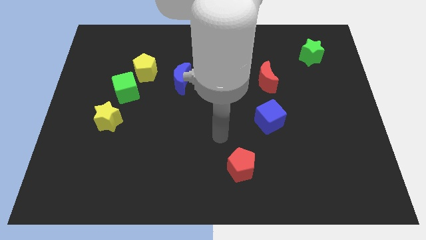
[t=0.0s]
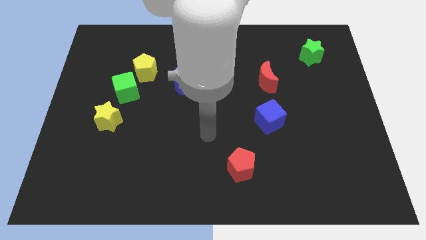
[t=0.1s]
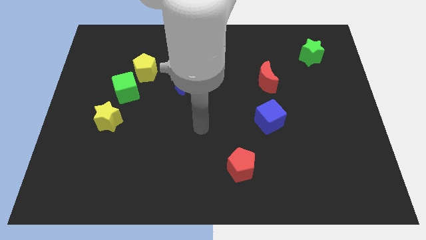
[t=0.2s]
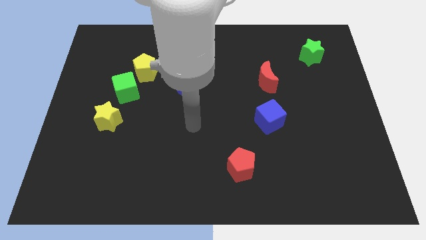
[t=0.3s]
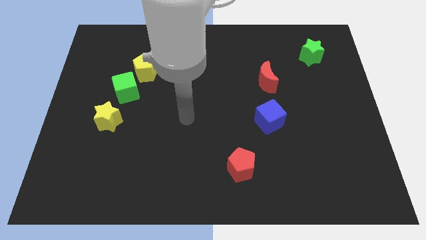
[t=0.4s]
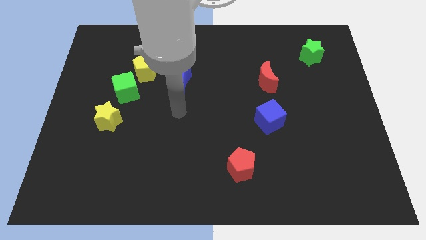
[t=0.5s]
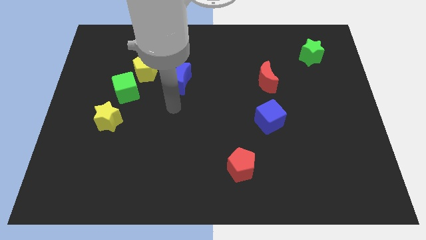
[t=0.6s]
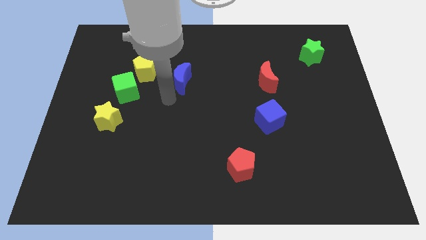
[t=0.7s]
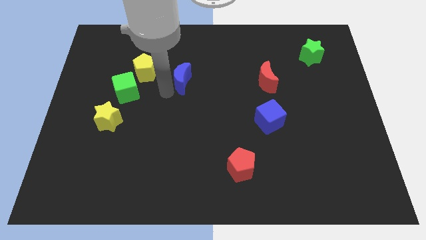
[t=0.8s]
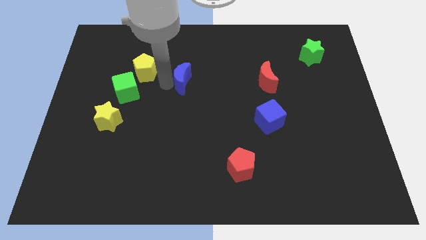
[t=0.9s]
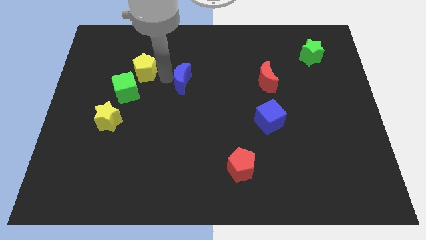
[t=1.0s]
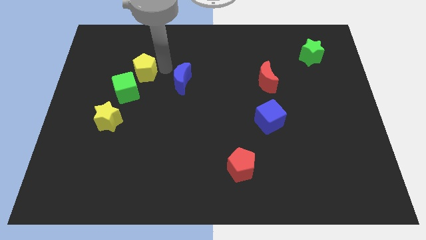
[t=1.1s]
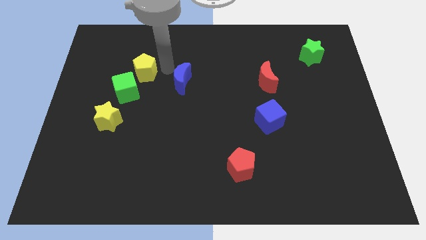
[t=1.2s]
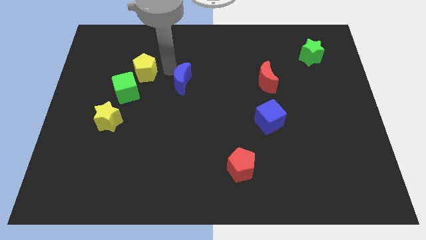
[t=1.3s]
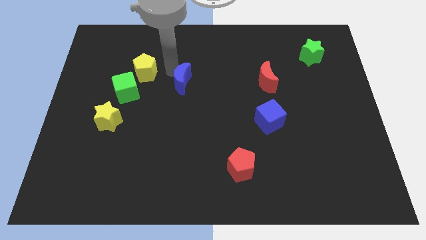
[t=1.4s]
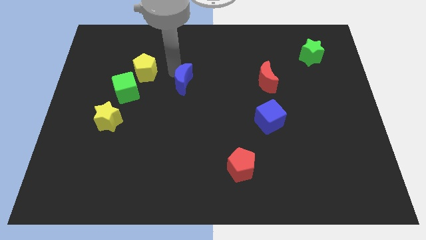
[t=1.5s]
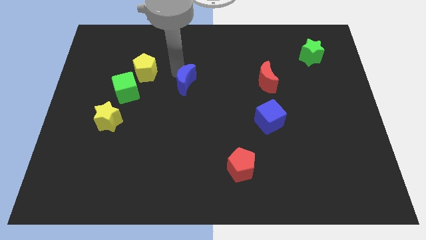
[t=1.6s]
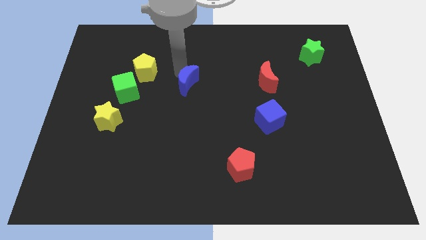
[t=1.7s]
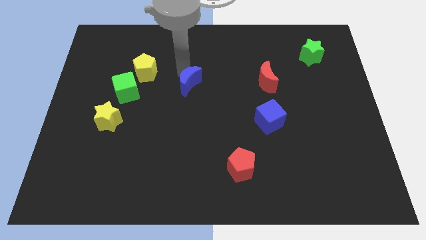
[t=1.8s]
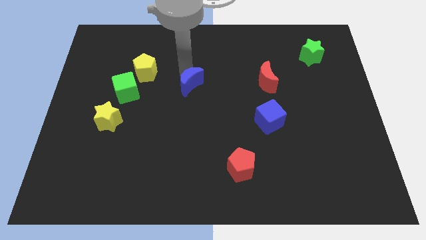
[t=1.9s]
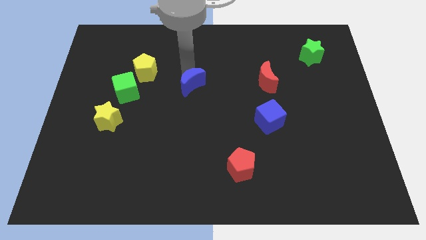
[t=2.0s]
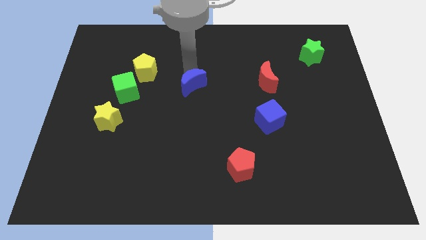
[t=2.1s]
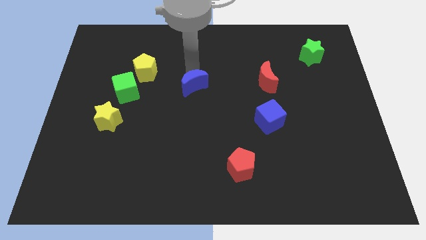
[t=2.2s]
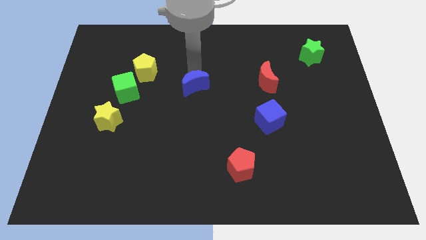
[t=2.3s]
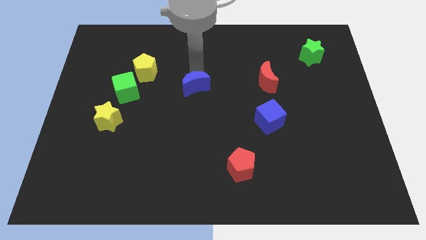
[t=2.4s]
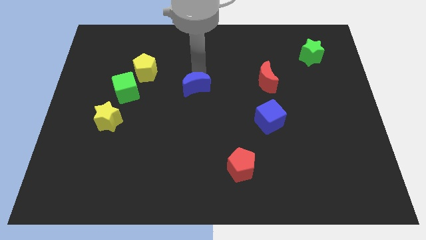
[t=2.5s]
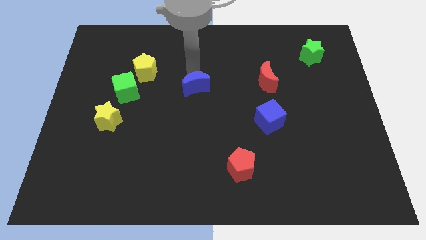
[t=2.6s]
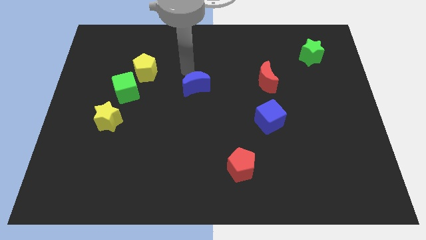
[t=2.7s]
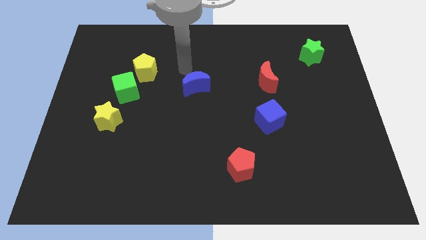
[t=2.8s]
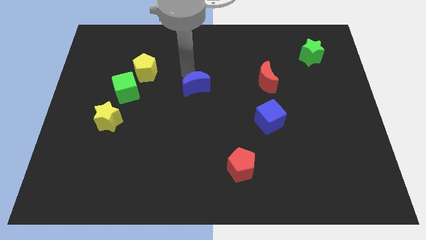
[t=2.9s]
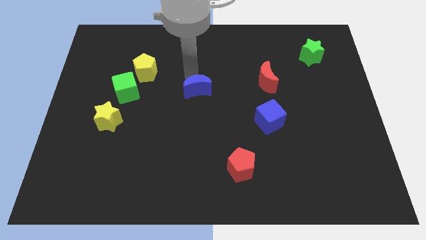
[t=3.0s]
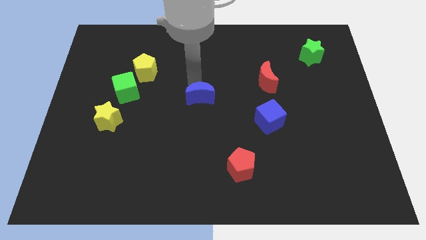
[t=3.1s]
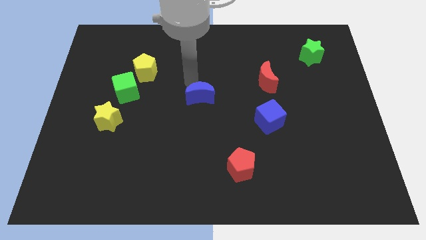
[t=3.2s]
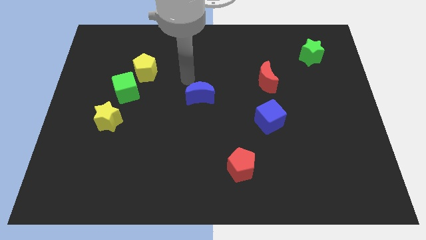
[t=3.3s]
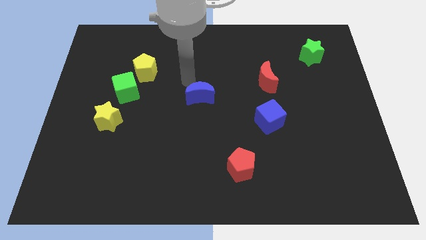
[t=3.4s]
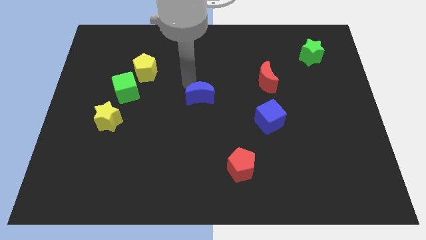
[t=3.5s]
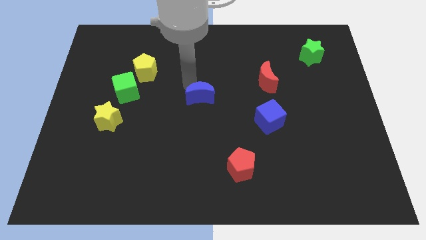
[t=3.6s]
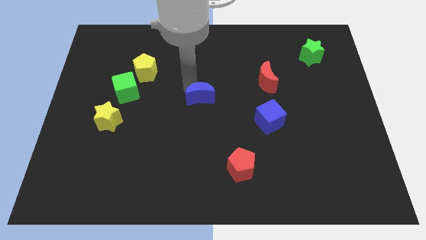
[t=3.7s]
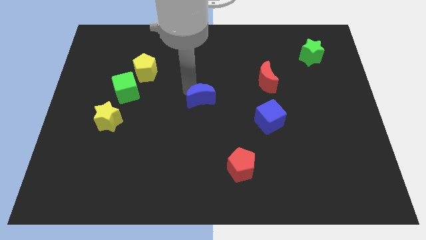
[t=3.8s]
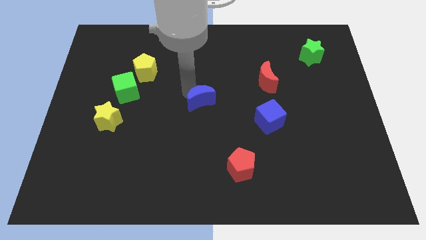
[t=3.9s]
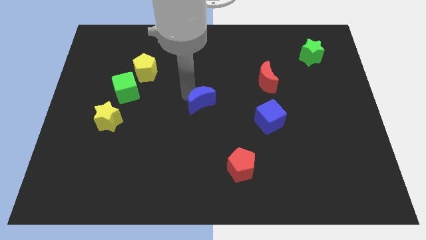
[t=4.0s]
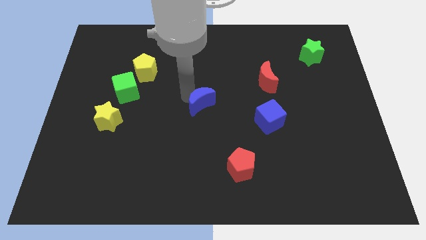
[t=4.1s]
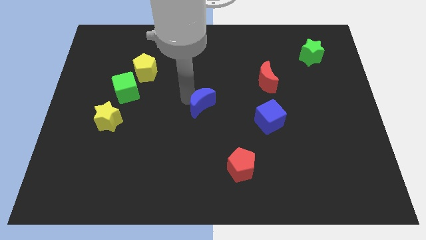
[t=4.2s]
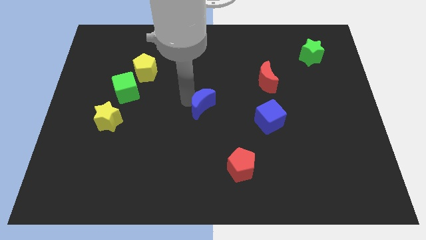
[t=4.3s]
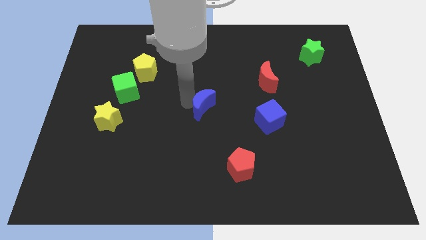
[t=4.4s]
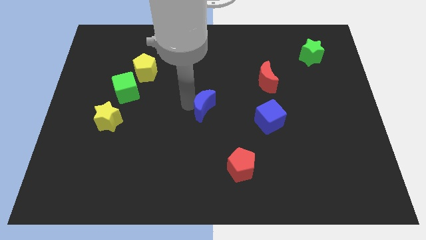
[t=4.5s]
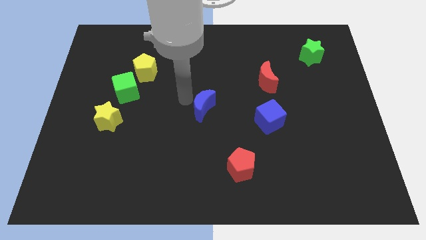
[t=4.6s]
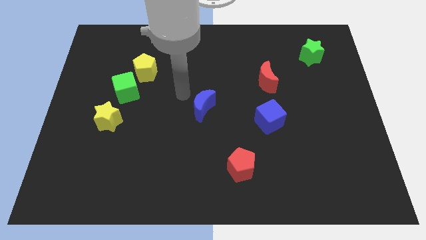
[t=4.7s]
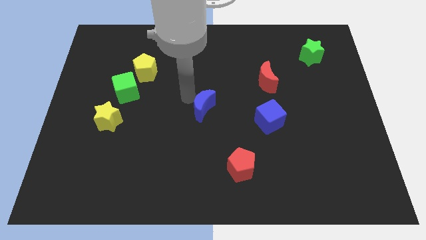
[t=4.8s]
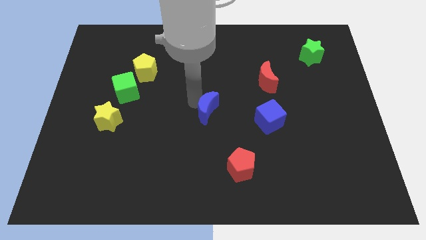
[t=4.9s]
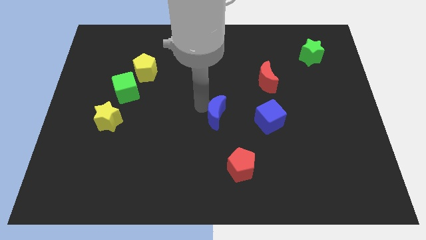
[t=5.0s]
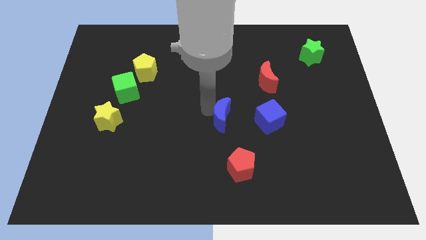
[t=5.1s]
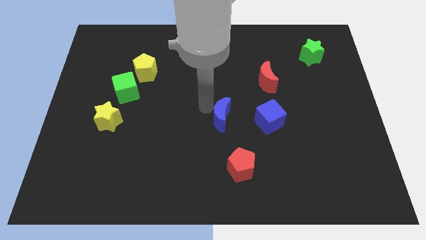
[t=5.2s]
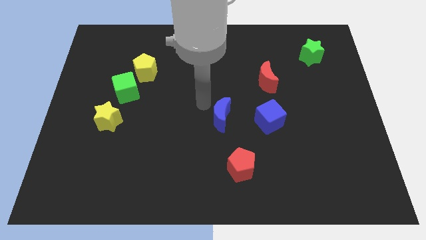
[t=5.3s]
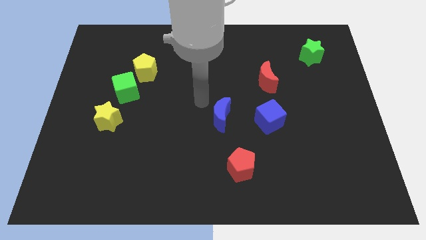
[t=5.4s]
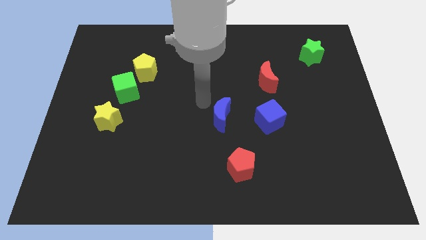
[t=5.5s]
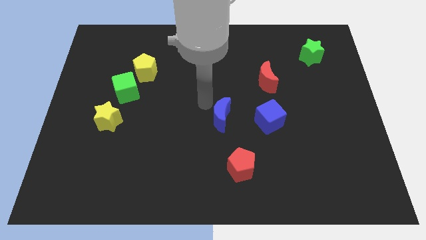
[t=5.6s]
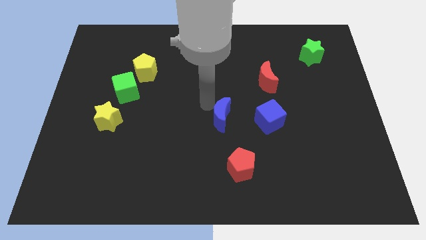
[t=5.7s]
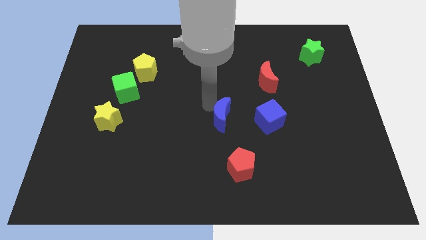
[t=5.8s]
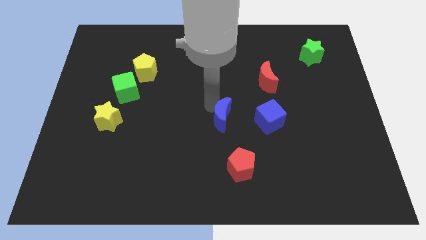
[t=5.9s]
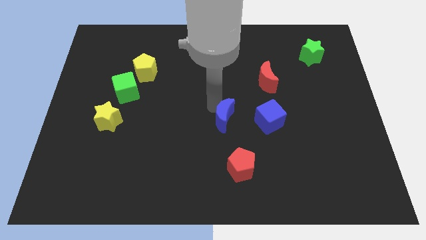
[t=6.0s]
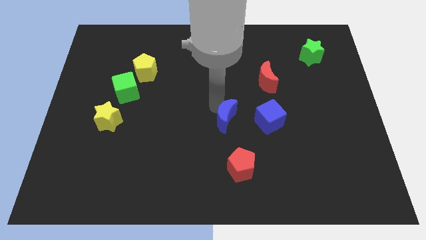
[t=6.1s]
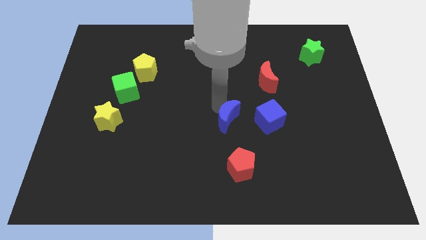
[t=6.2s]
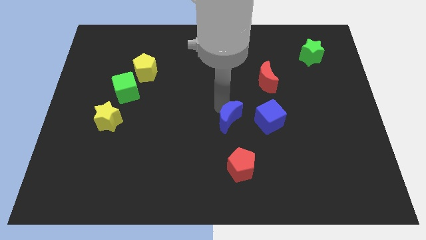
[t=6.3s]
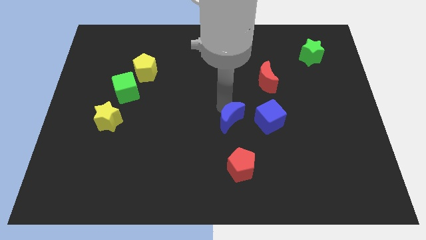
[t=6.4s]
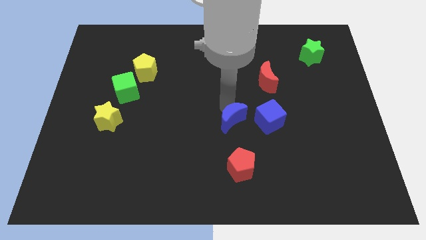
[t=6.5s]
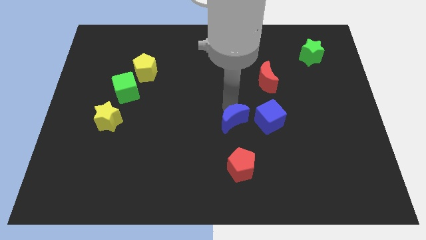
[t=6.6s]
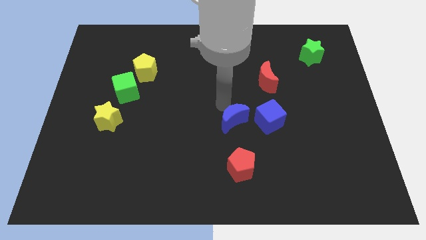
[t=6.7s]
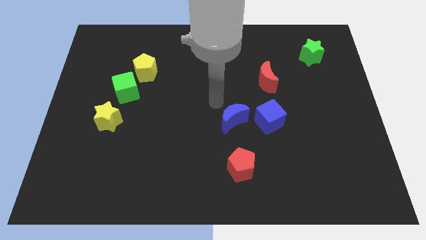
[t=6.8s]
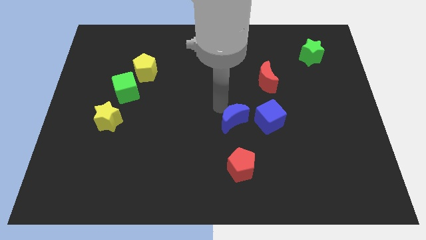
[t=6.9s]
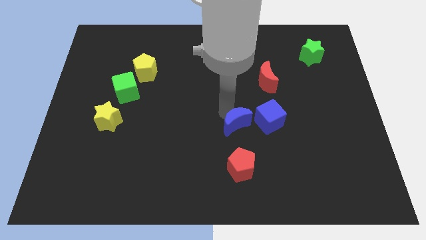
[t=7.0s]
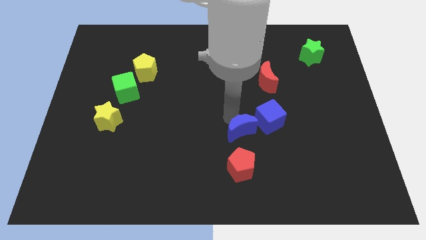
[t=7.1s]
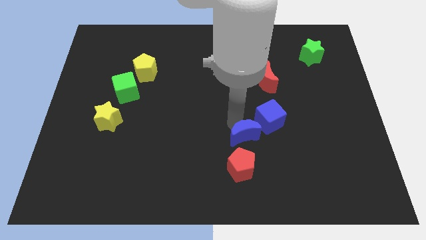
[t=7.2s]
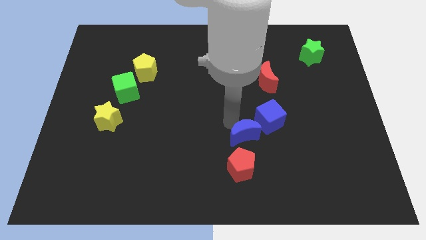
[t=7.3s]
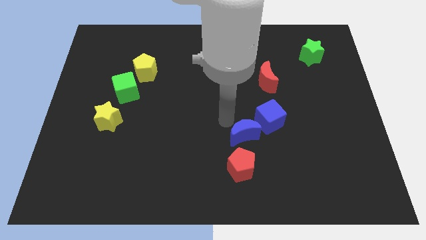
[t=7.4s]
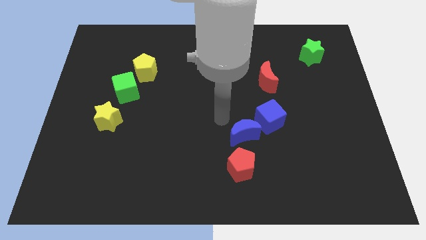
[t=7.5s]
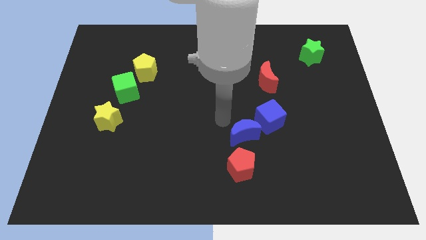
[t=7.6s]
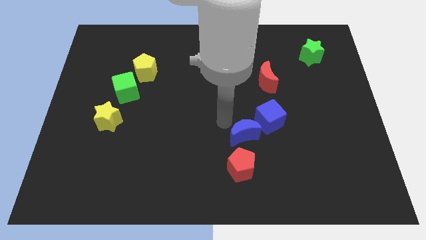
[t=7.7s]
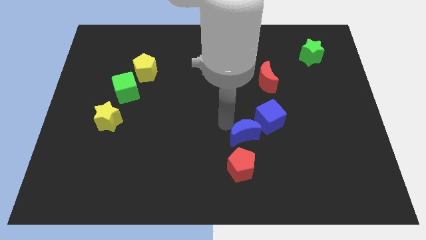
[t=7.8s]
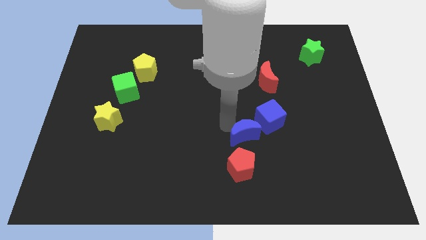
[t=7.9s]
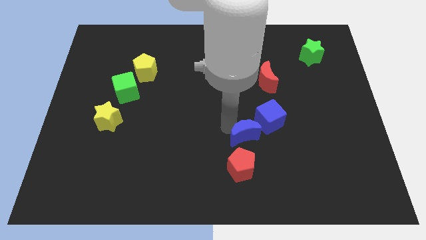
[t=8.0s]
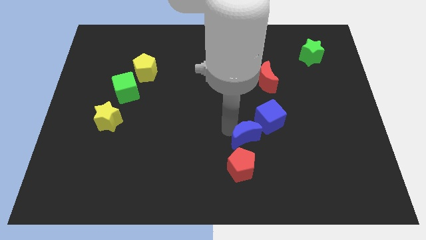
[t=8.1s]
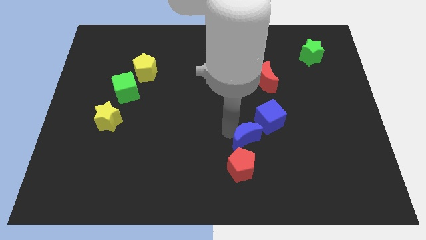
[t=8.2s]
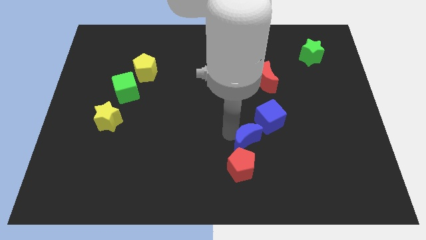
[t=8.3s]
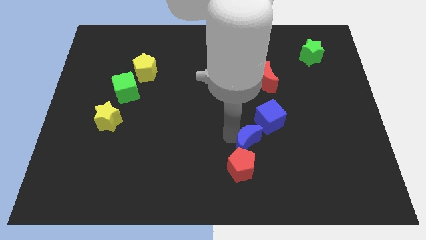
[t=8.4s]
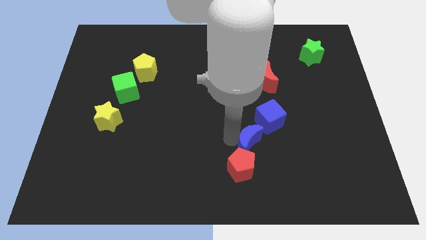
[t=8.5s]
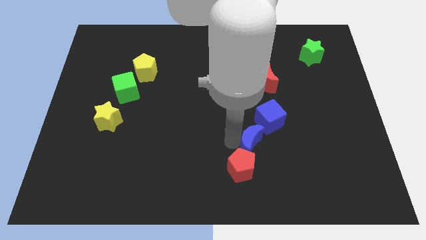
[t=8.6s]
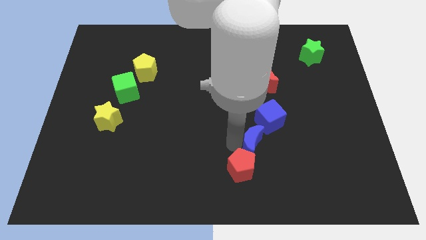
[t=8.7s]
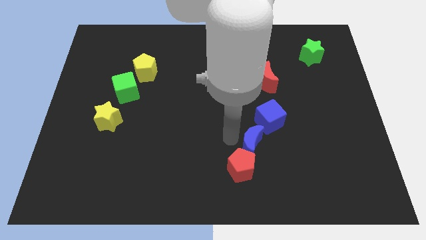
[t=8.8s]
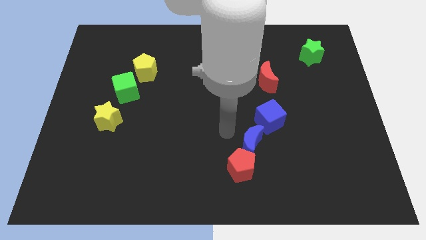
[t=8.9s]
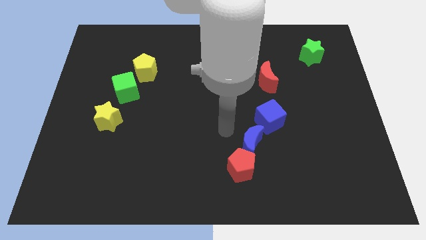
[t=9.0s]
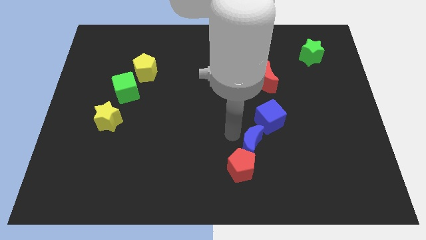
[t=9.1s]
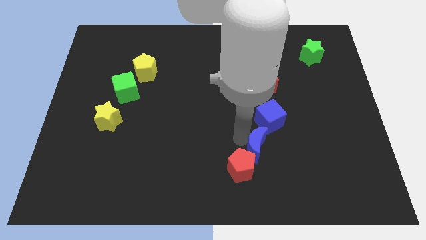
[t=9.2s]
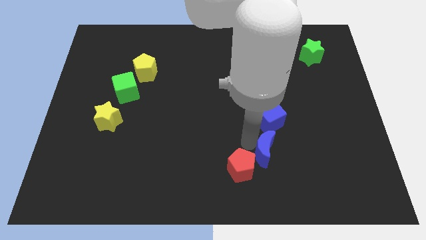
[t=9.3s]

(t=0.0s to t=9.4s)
put the blue moon just right of the red pentagon
